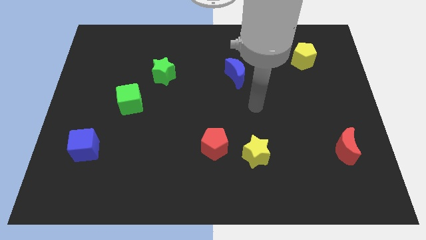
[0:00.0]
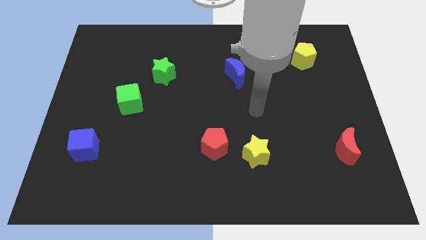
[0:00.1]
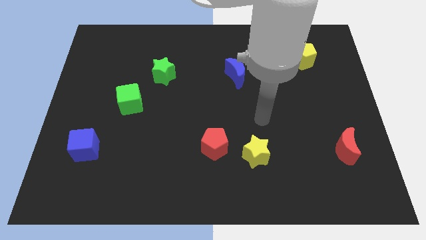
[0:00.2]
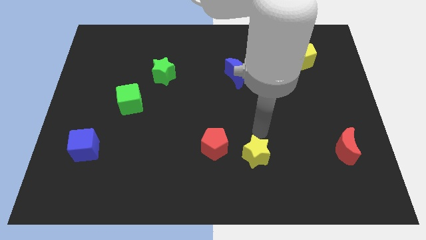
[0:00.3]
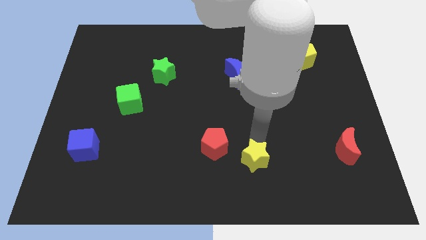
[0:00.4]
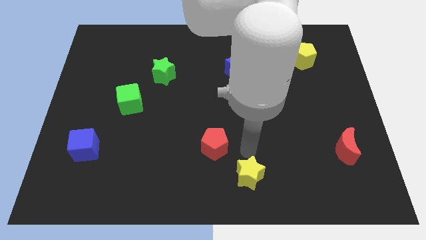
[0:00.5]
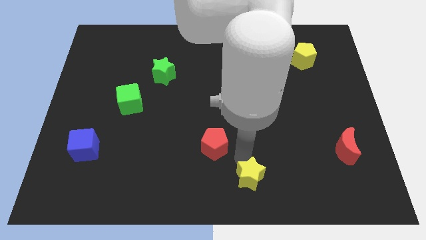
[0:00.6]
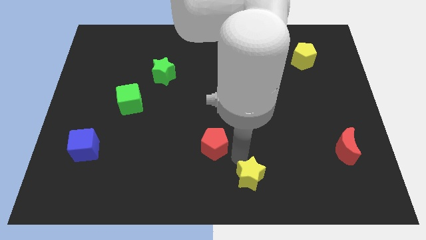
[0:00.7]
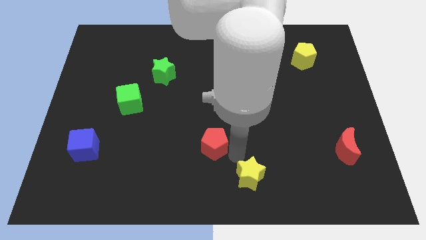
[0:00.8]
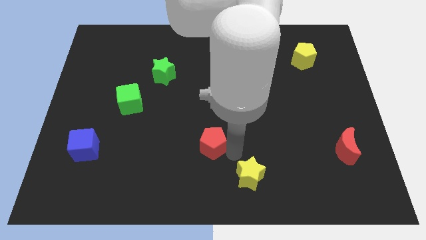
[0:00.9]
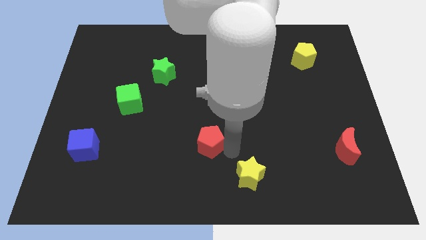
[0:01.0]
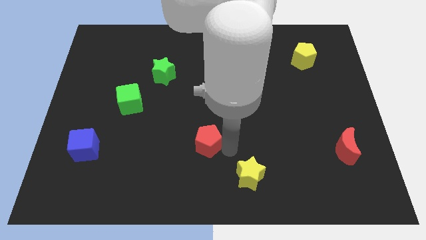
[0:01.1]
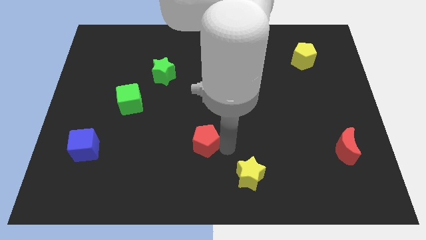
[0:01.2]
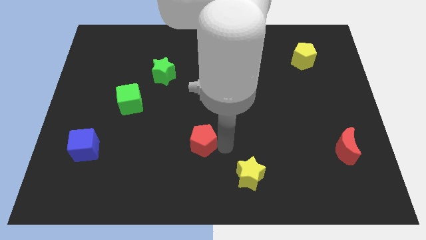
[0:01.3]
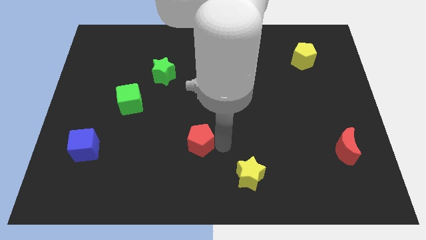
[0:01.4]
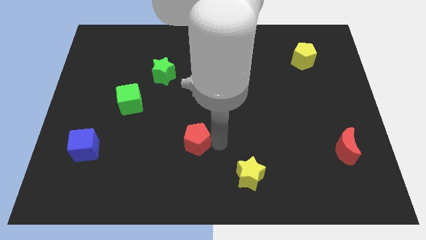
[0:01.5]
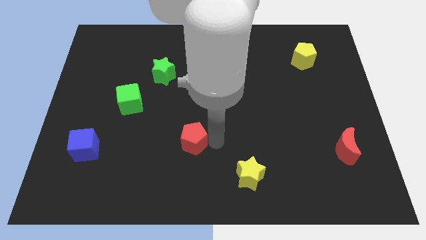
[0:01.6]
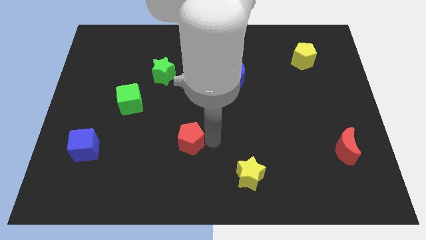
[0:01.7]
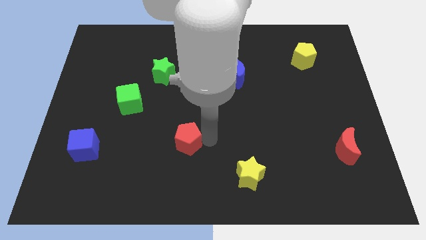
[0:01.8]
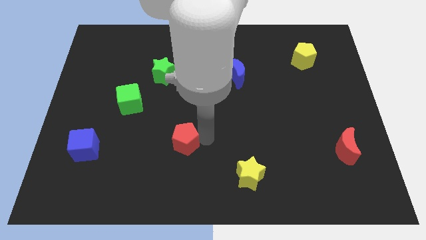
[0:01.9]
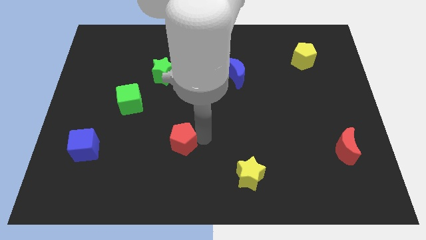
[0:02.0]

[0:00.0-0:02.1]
move the red pentagon somewhat to the left

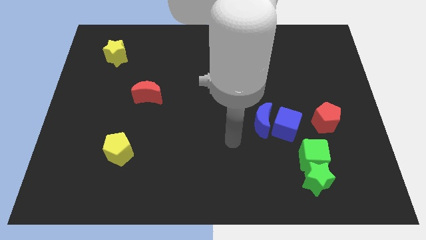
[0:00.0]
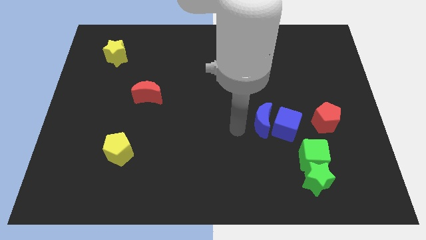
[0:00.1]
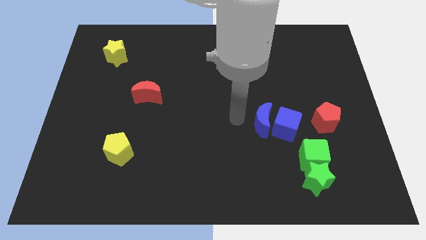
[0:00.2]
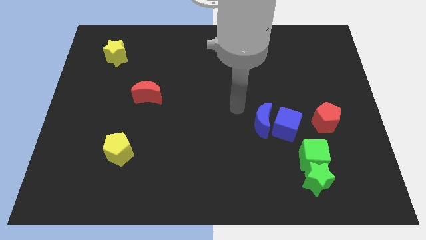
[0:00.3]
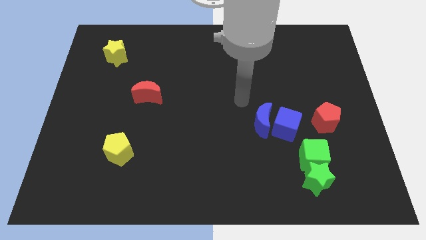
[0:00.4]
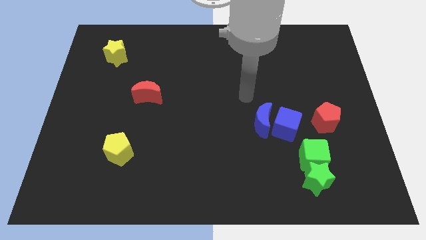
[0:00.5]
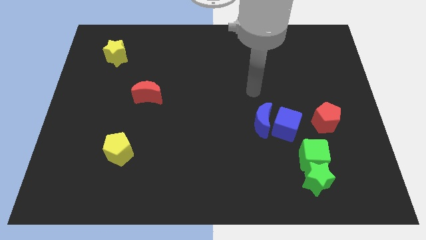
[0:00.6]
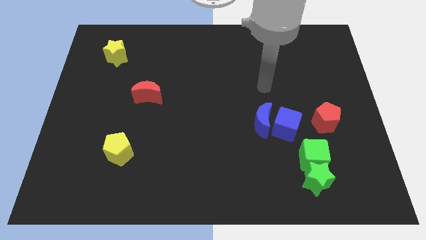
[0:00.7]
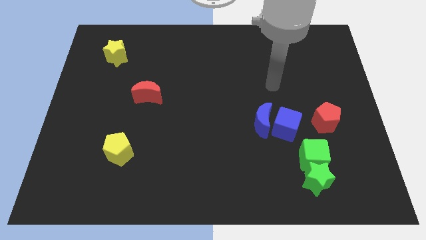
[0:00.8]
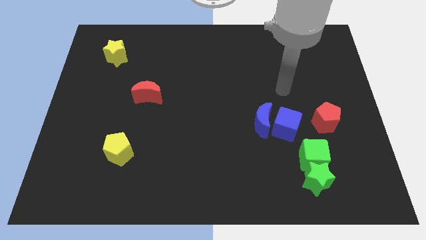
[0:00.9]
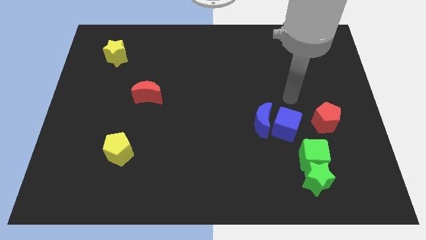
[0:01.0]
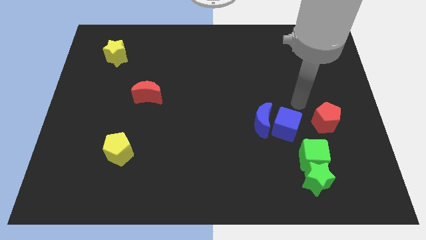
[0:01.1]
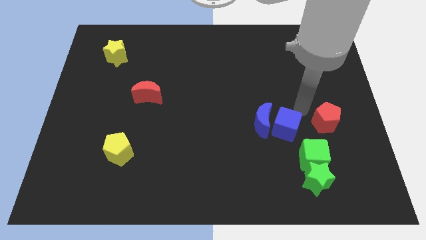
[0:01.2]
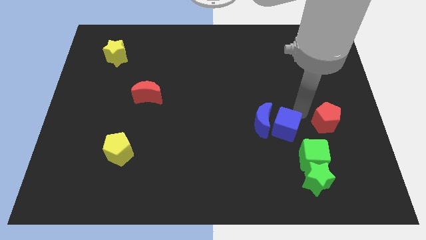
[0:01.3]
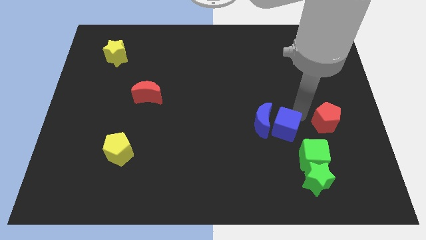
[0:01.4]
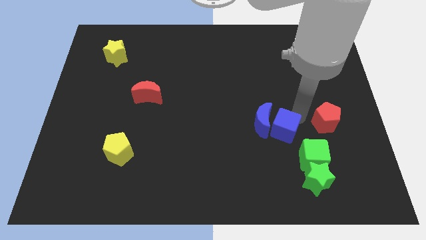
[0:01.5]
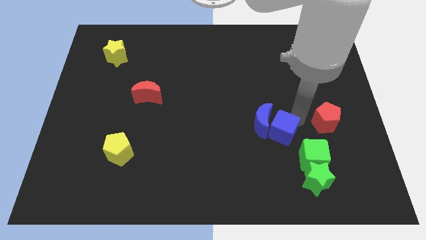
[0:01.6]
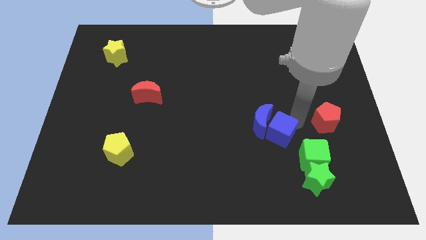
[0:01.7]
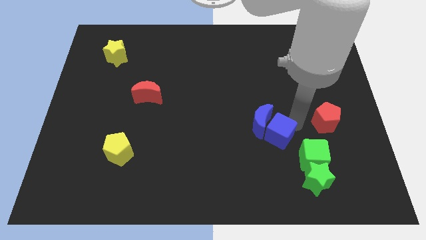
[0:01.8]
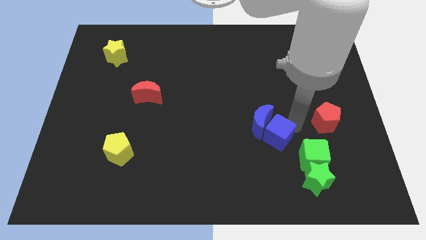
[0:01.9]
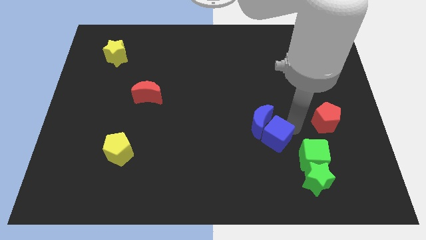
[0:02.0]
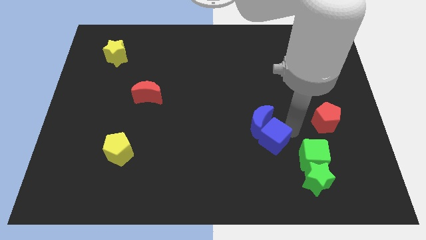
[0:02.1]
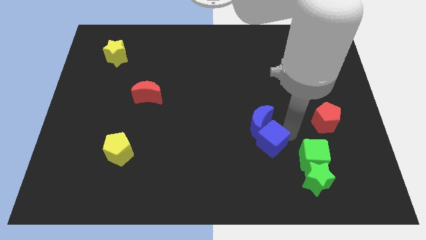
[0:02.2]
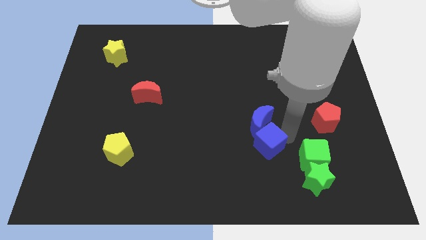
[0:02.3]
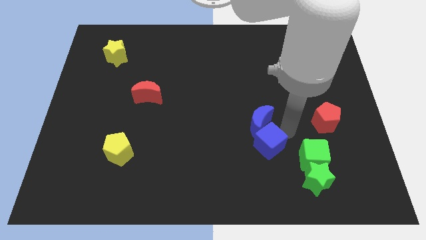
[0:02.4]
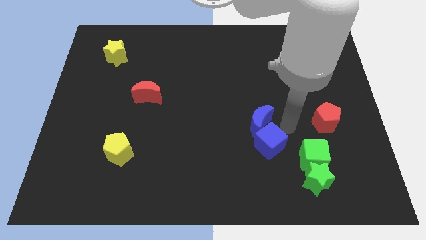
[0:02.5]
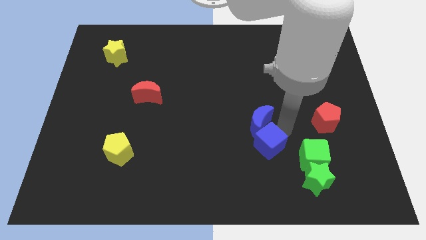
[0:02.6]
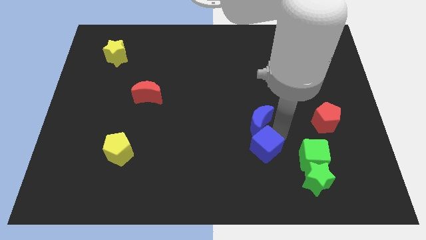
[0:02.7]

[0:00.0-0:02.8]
slide the blue cube downwards and to the left a bit

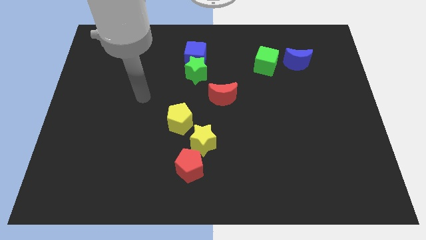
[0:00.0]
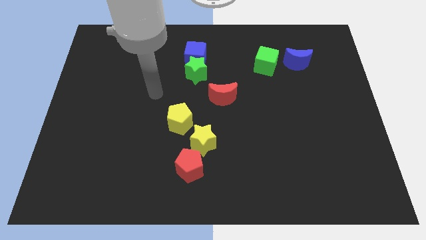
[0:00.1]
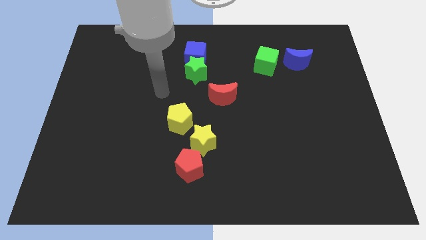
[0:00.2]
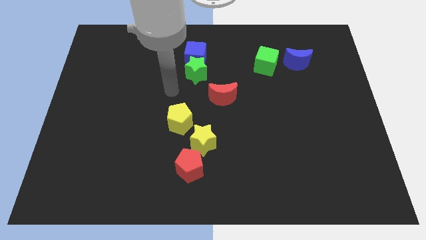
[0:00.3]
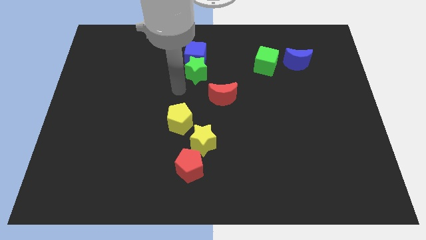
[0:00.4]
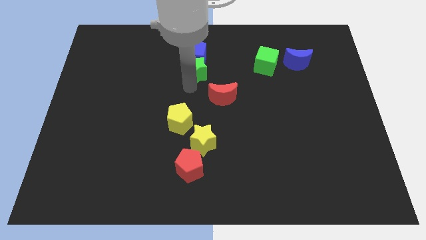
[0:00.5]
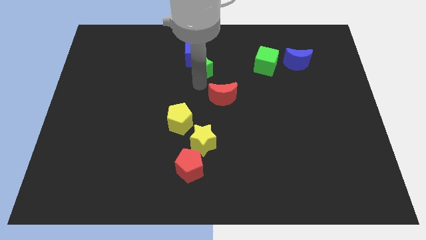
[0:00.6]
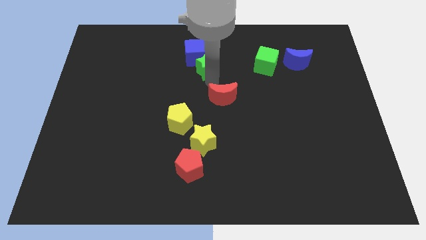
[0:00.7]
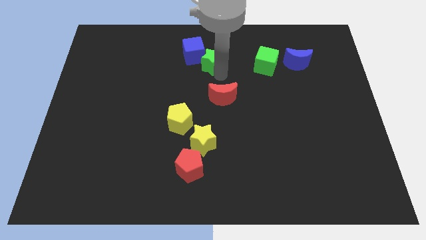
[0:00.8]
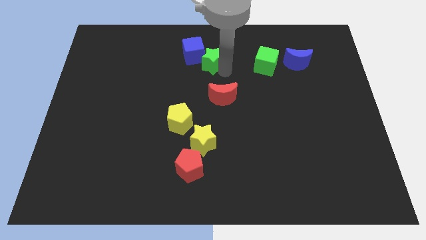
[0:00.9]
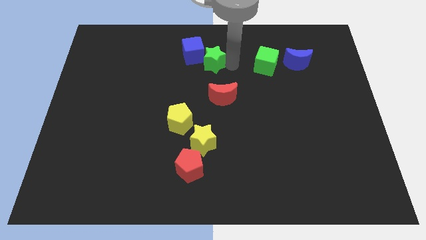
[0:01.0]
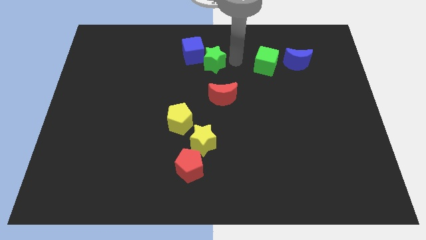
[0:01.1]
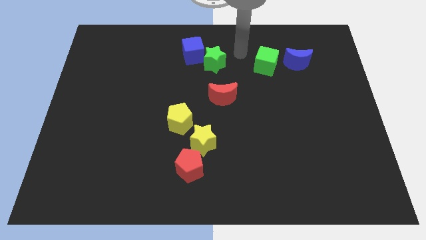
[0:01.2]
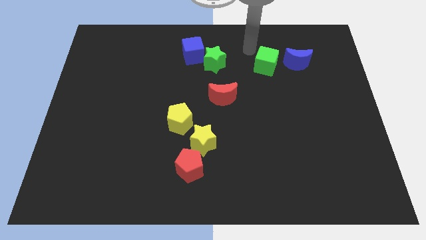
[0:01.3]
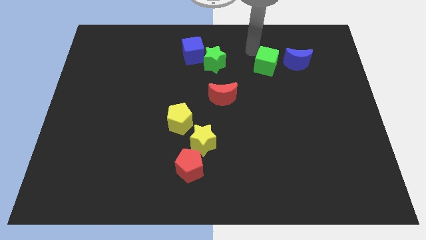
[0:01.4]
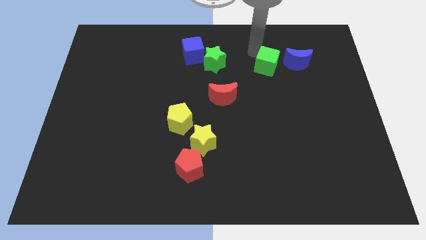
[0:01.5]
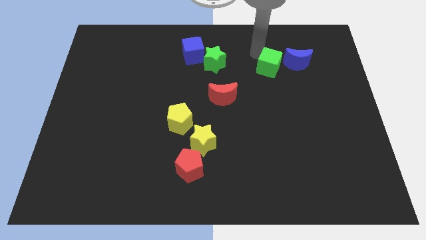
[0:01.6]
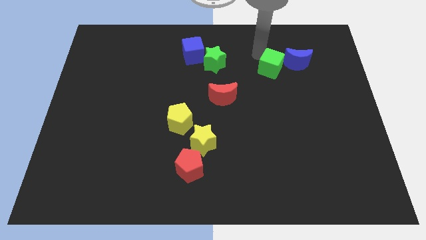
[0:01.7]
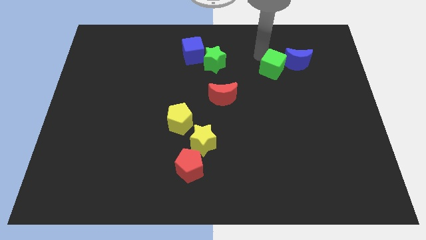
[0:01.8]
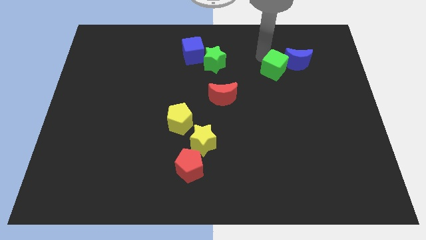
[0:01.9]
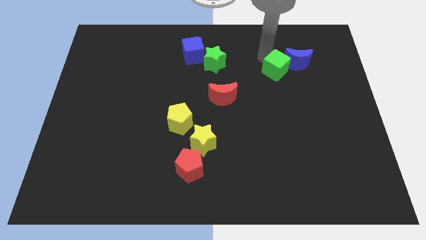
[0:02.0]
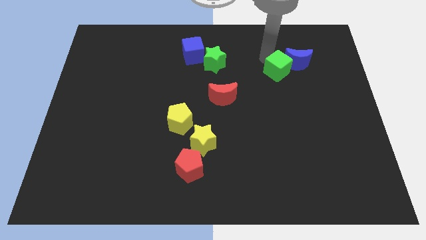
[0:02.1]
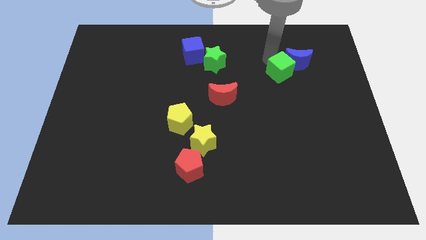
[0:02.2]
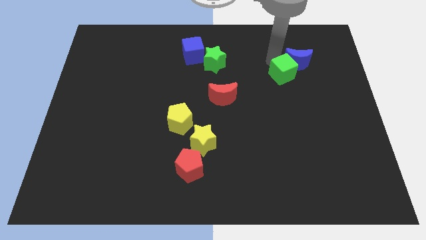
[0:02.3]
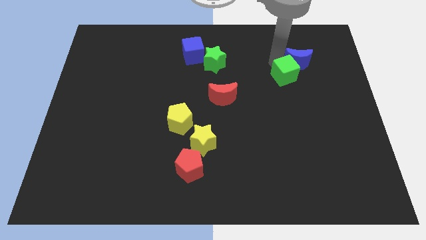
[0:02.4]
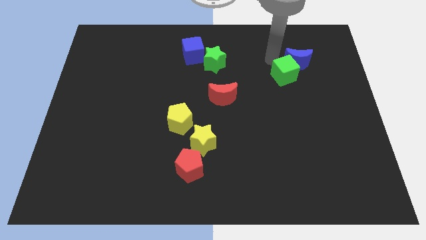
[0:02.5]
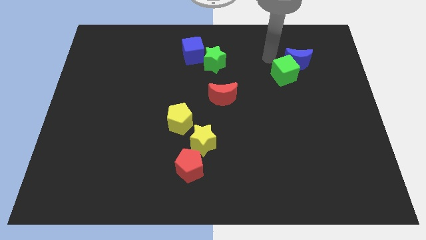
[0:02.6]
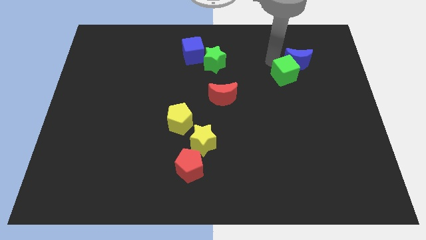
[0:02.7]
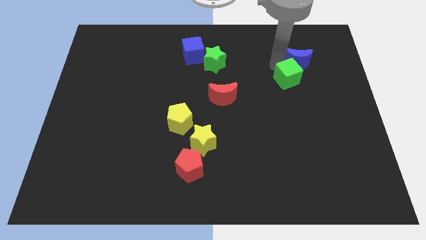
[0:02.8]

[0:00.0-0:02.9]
push the green cube down and to the right somewhat

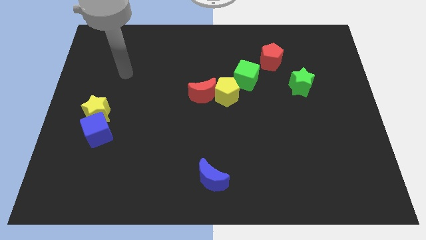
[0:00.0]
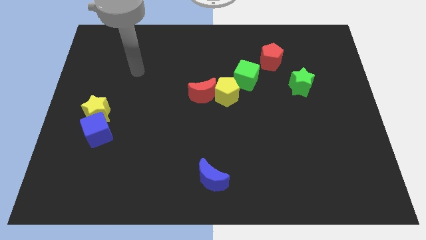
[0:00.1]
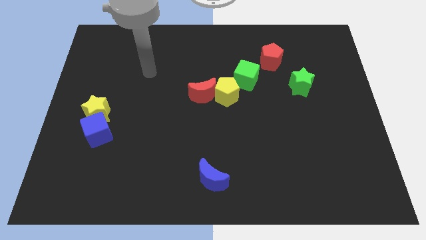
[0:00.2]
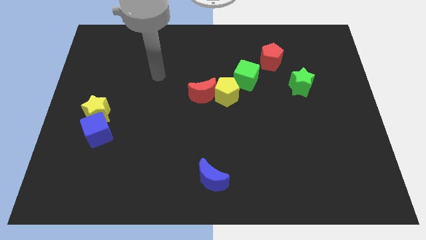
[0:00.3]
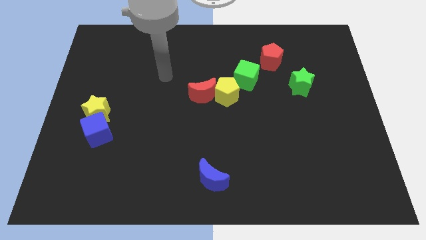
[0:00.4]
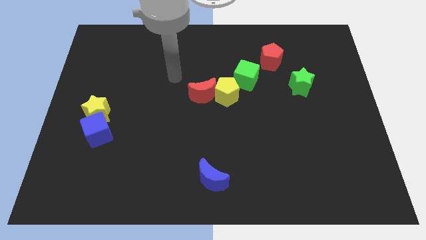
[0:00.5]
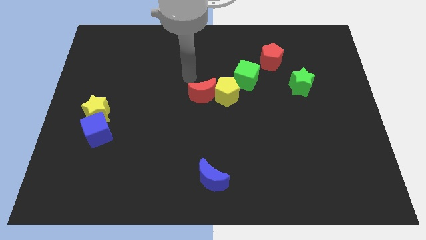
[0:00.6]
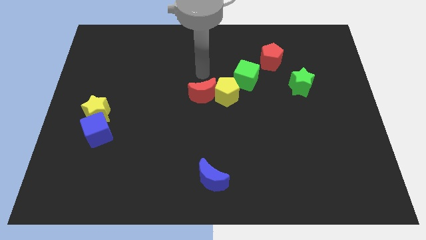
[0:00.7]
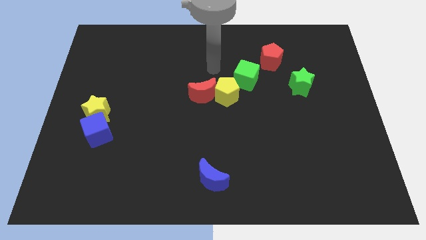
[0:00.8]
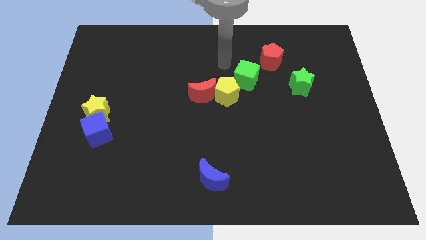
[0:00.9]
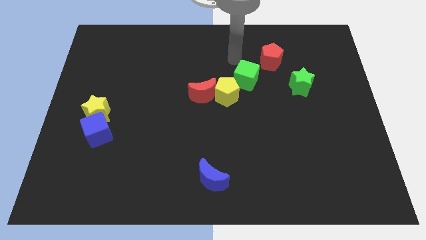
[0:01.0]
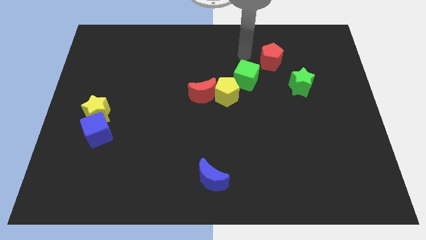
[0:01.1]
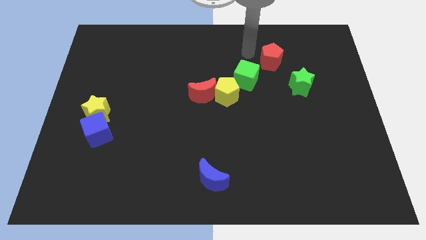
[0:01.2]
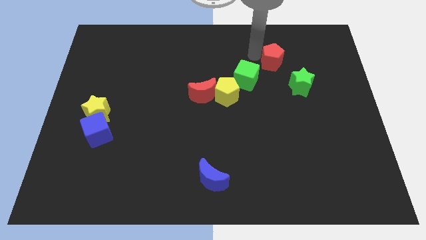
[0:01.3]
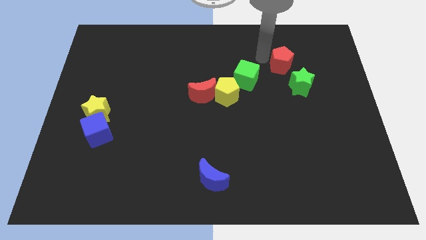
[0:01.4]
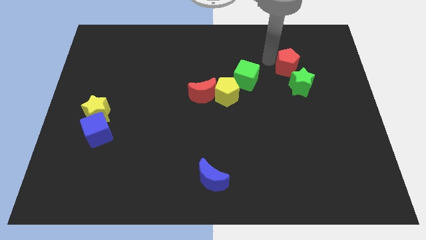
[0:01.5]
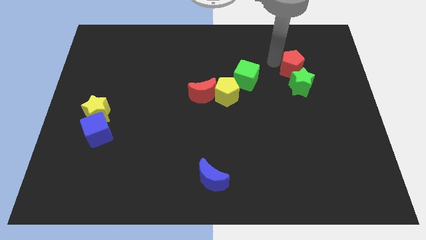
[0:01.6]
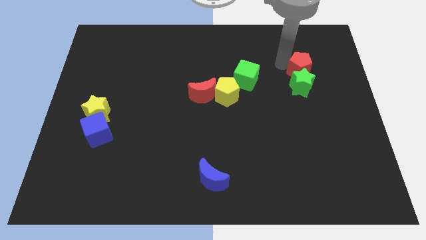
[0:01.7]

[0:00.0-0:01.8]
push the red pentagon down and to the right diagonally a little bit
